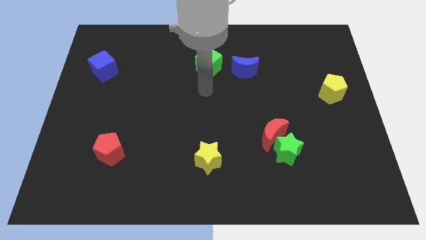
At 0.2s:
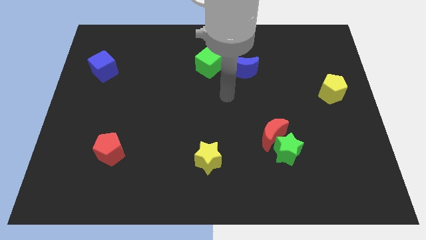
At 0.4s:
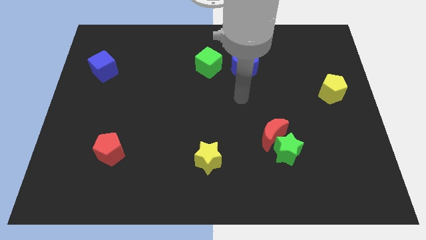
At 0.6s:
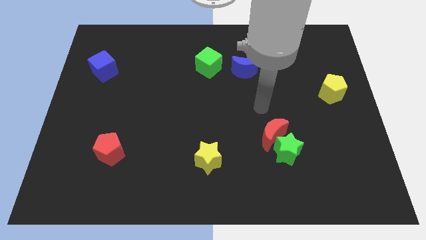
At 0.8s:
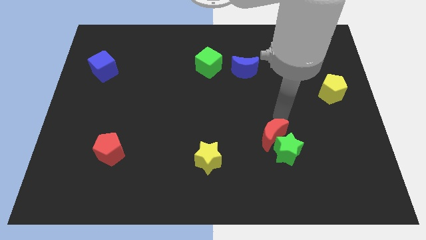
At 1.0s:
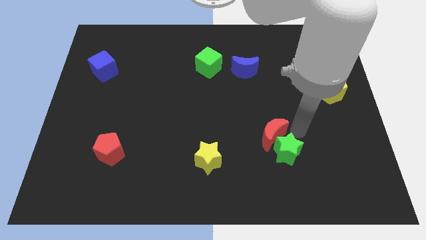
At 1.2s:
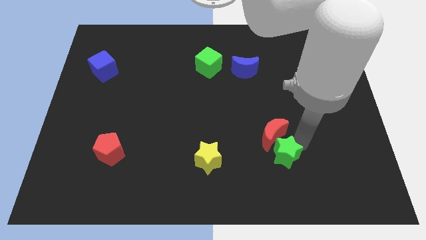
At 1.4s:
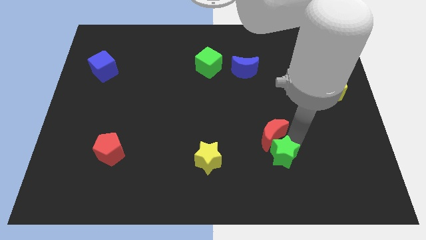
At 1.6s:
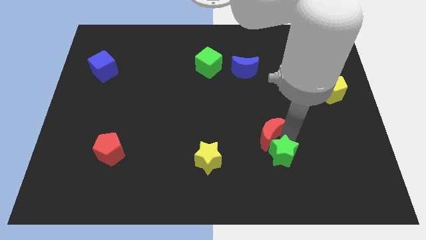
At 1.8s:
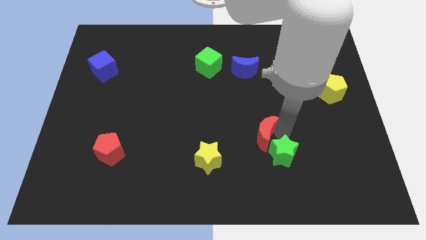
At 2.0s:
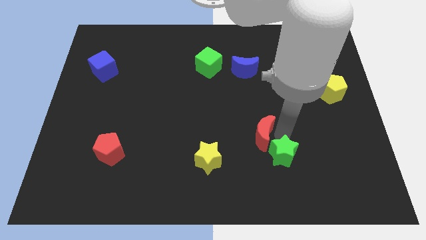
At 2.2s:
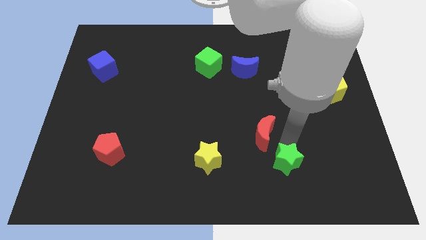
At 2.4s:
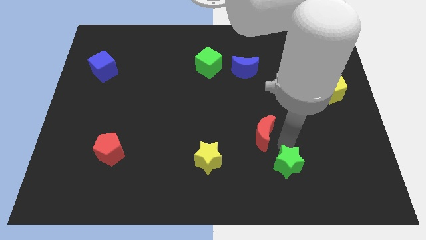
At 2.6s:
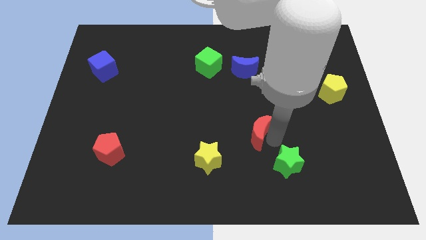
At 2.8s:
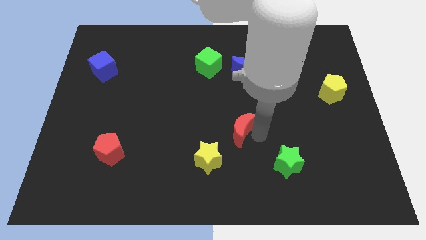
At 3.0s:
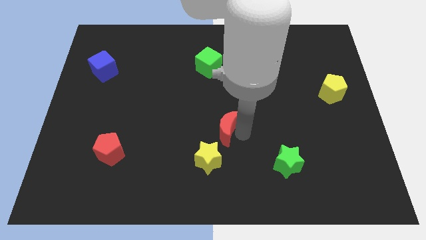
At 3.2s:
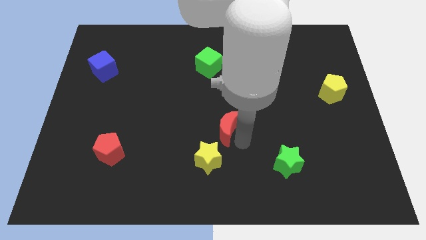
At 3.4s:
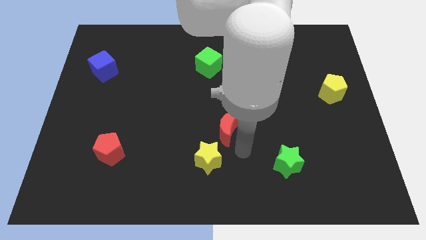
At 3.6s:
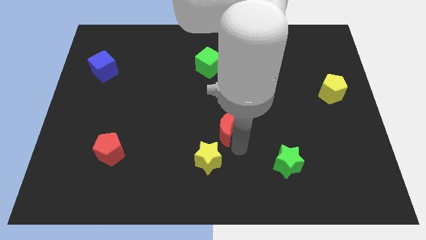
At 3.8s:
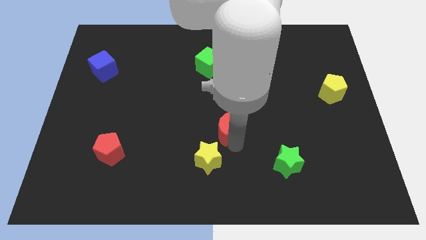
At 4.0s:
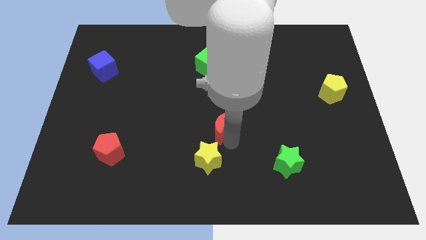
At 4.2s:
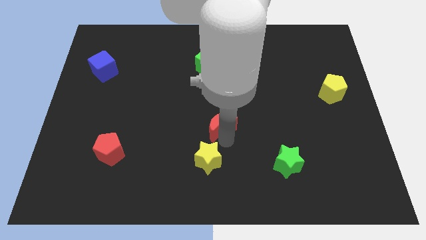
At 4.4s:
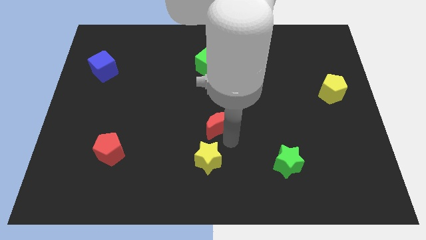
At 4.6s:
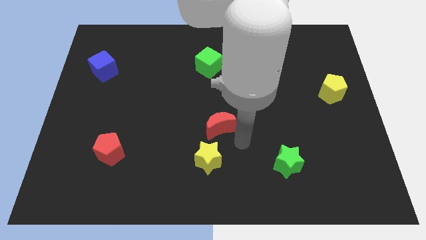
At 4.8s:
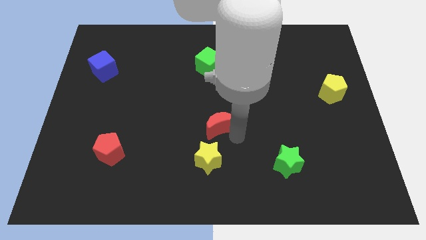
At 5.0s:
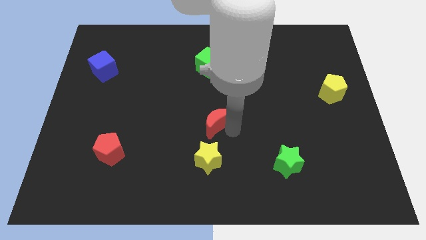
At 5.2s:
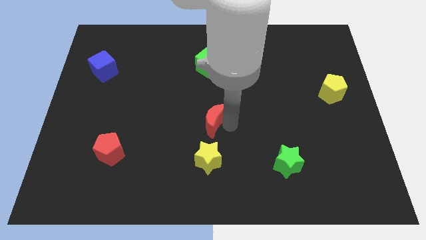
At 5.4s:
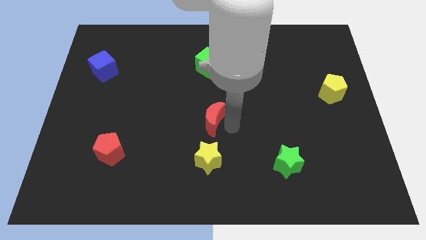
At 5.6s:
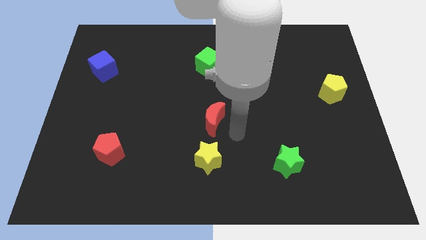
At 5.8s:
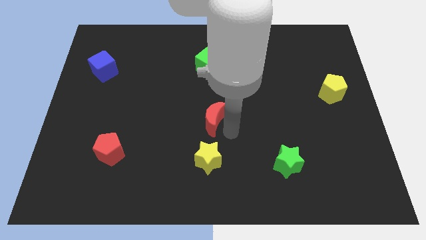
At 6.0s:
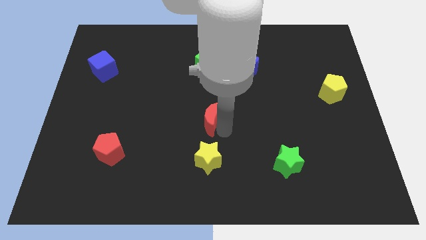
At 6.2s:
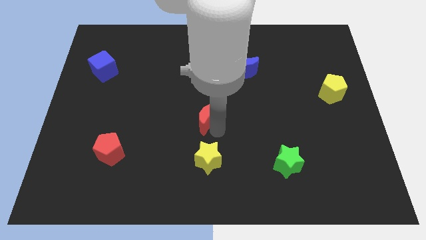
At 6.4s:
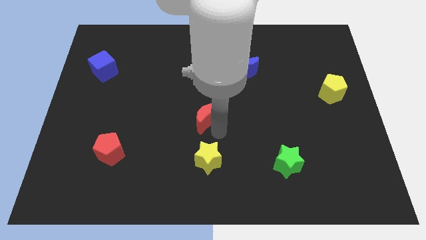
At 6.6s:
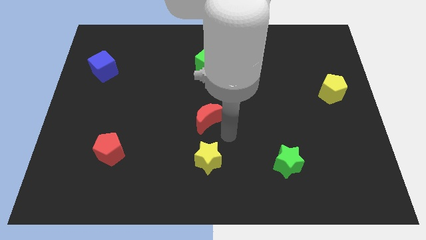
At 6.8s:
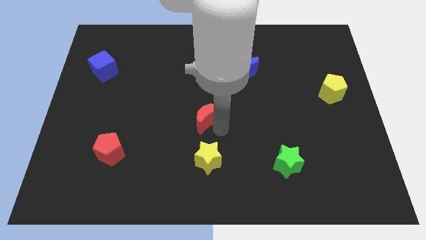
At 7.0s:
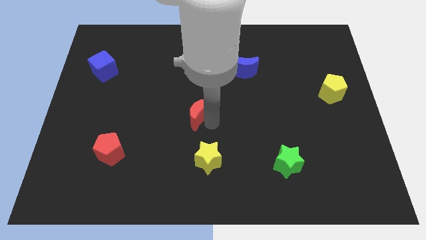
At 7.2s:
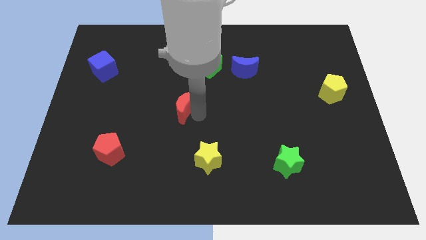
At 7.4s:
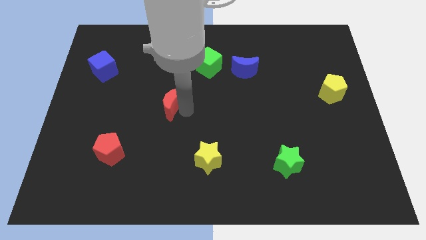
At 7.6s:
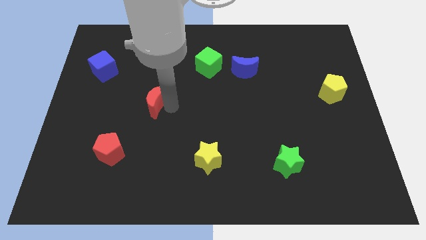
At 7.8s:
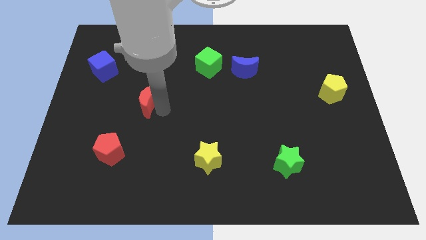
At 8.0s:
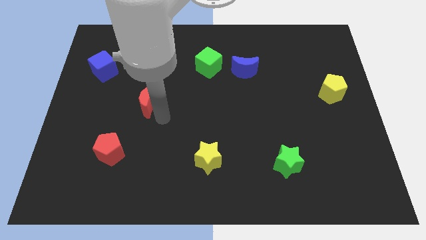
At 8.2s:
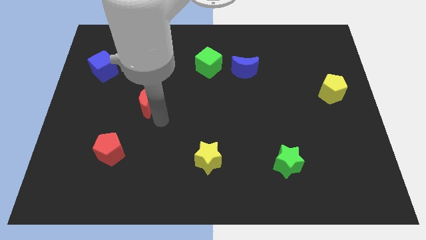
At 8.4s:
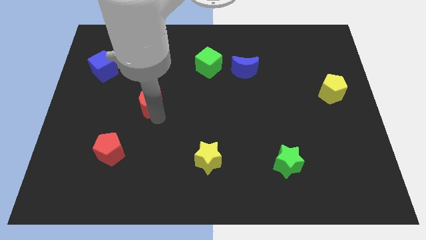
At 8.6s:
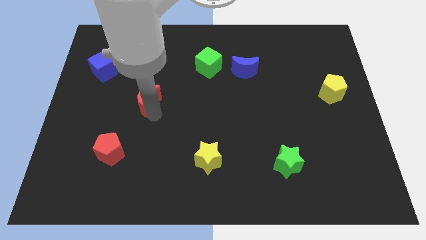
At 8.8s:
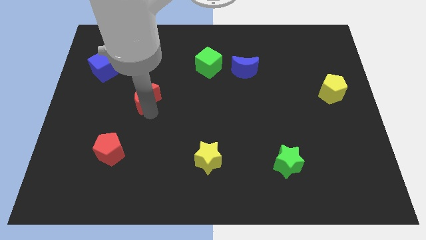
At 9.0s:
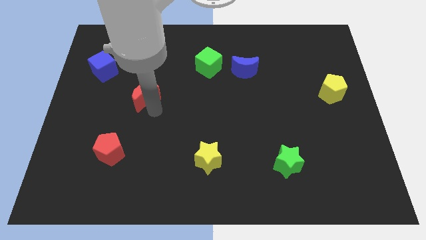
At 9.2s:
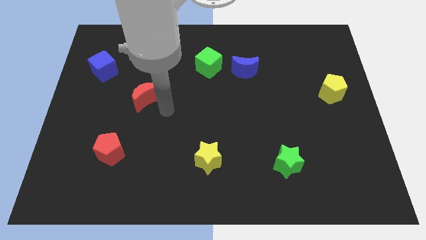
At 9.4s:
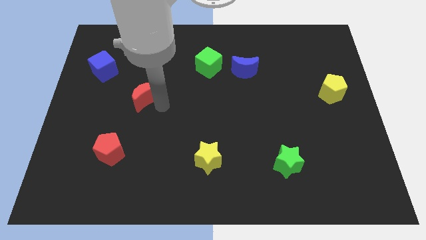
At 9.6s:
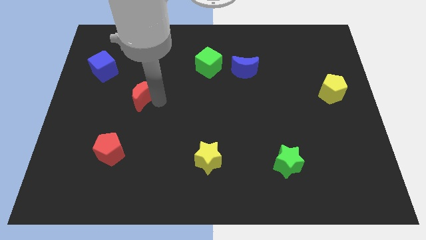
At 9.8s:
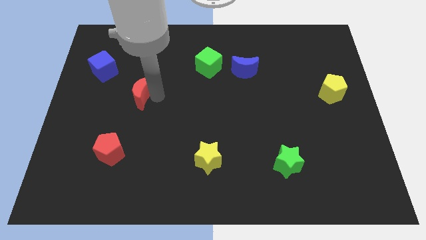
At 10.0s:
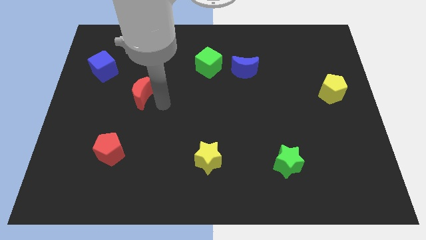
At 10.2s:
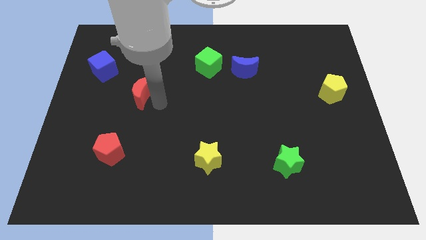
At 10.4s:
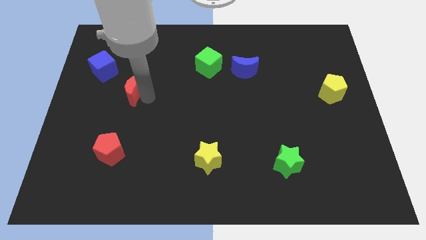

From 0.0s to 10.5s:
slide the red moon diagonally down and to the right of the blue cube

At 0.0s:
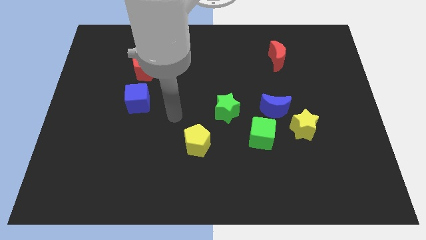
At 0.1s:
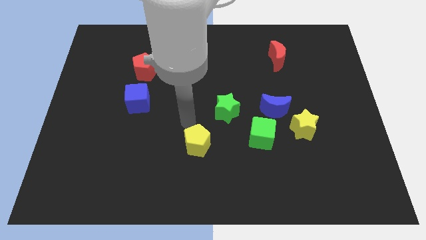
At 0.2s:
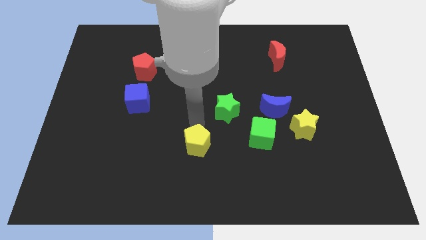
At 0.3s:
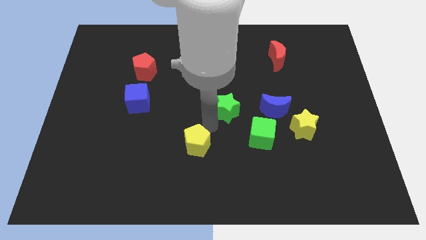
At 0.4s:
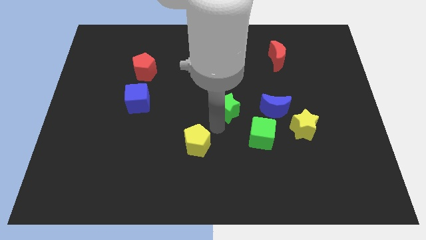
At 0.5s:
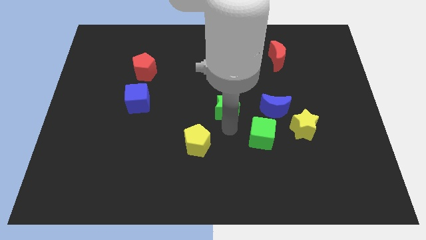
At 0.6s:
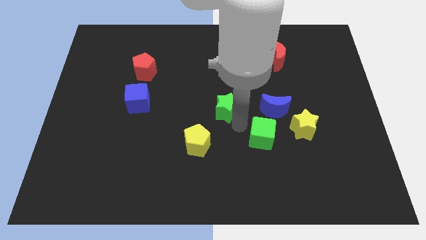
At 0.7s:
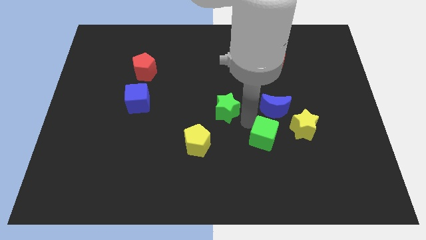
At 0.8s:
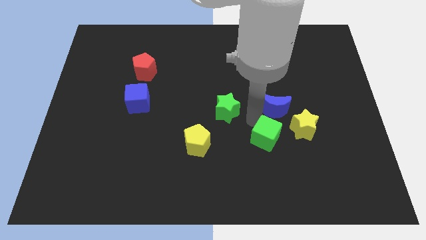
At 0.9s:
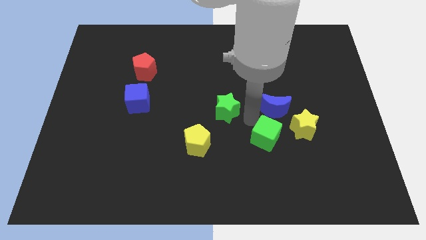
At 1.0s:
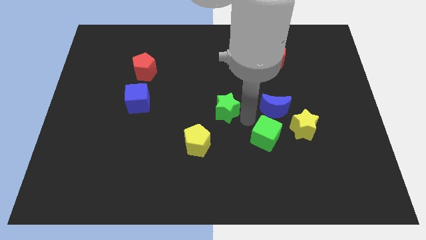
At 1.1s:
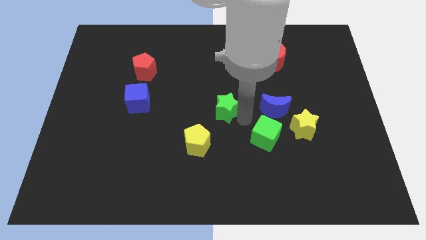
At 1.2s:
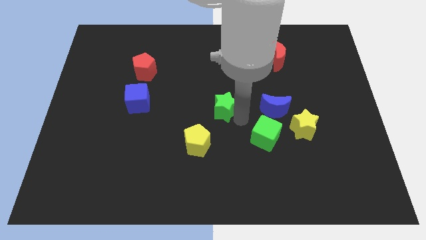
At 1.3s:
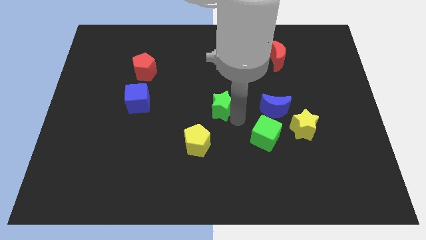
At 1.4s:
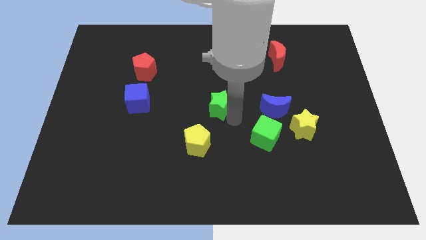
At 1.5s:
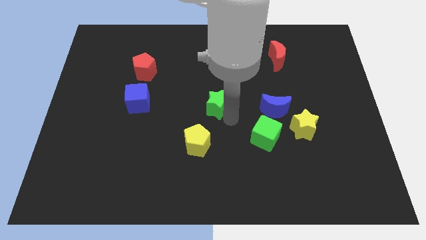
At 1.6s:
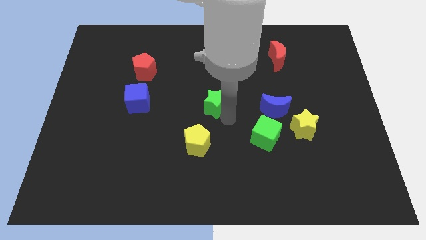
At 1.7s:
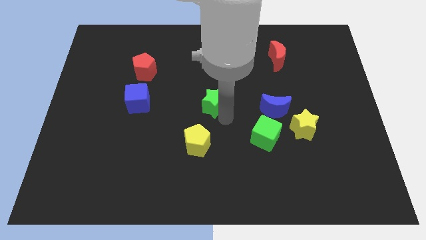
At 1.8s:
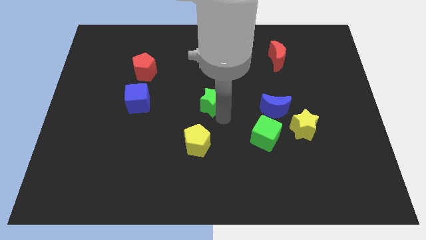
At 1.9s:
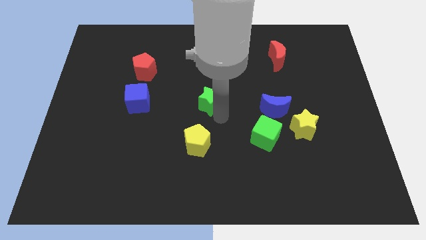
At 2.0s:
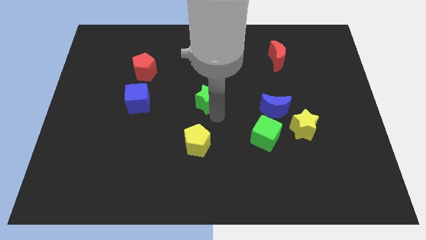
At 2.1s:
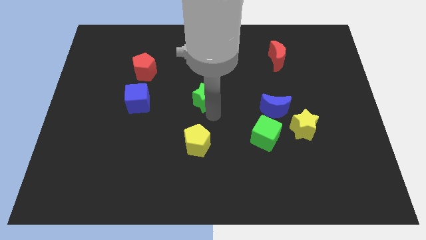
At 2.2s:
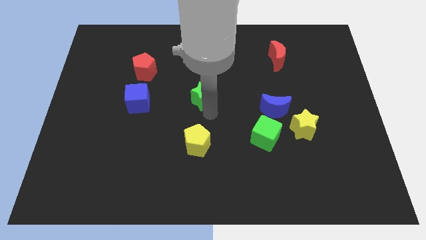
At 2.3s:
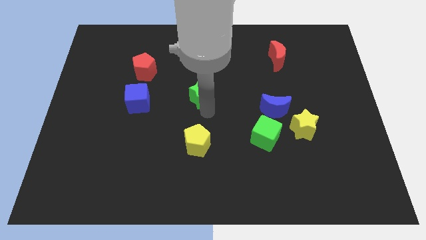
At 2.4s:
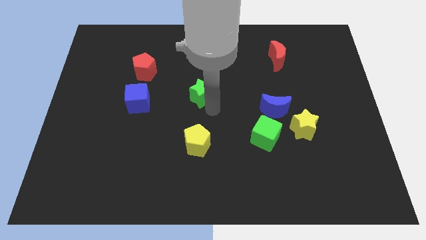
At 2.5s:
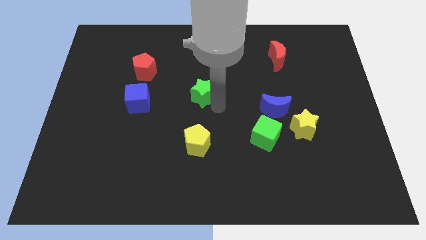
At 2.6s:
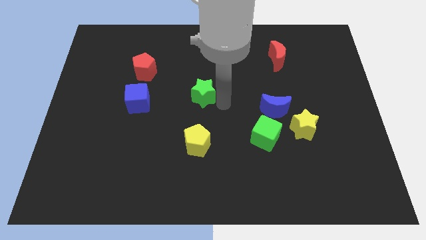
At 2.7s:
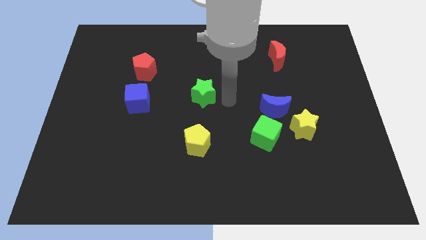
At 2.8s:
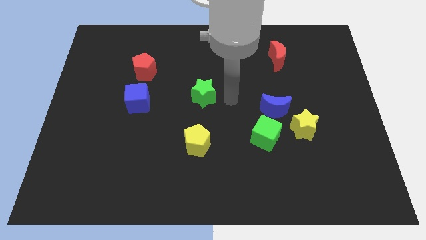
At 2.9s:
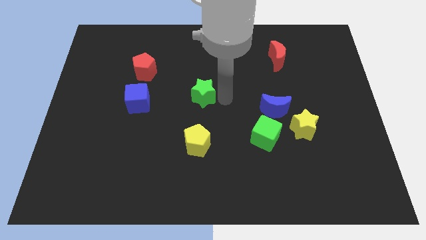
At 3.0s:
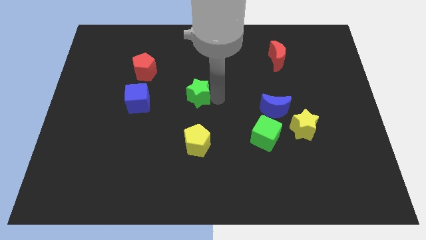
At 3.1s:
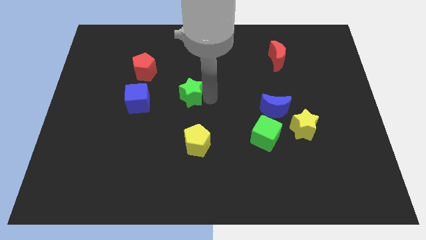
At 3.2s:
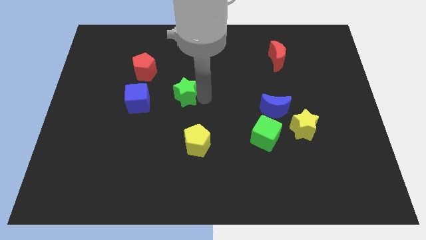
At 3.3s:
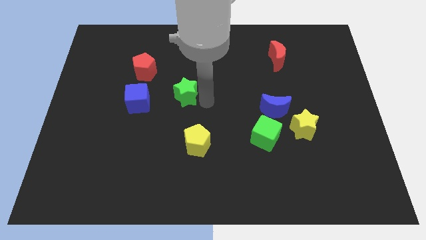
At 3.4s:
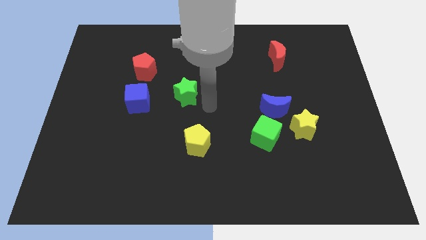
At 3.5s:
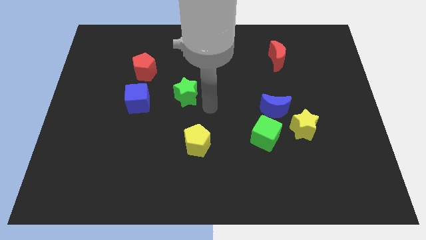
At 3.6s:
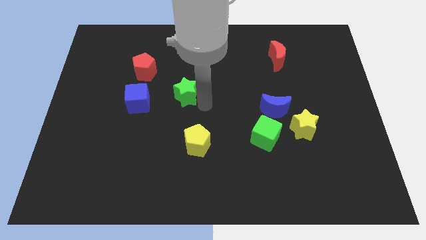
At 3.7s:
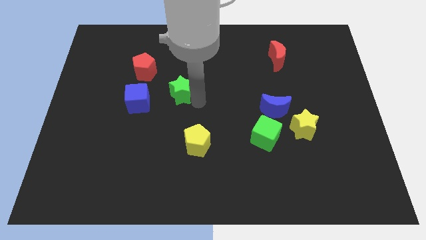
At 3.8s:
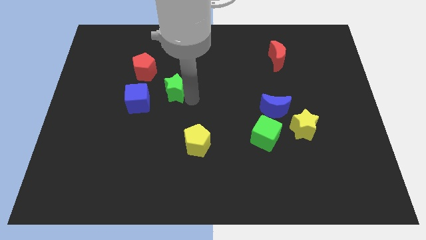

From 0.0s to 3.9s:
put the green star to the top right side of the blue cube
